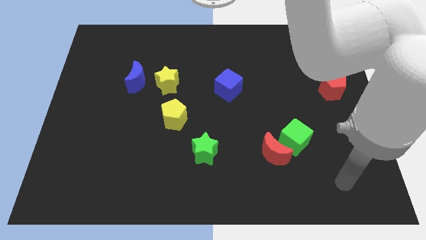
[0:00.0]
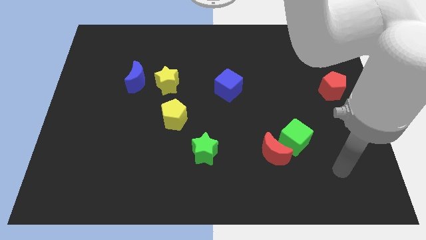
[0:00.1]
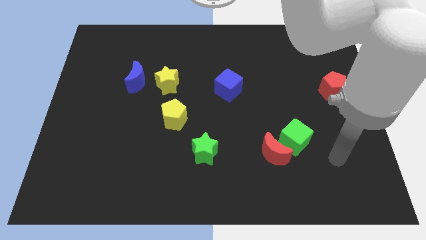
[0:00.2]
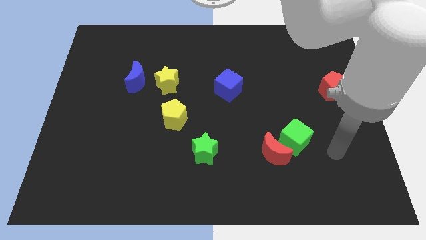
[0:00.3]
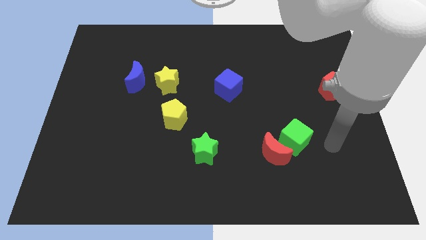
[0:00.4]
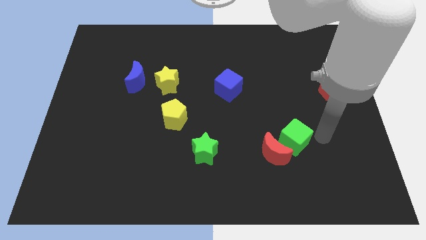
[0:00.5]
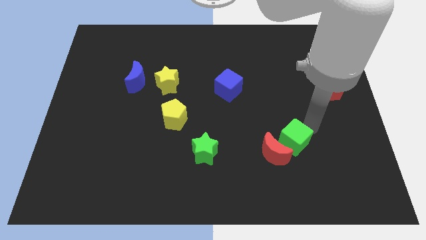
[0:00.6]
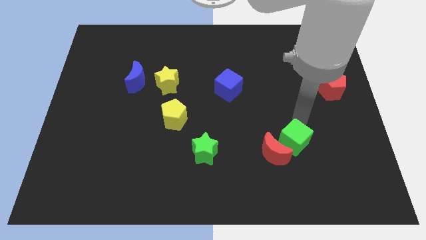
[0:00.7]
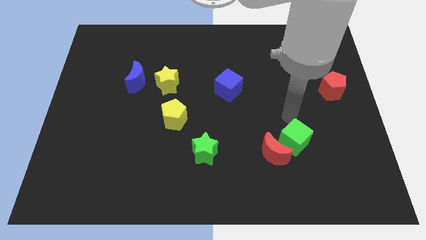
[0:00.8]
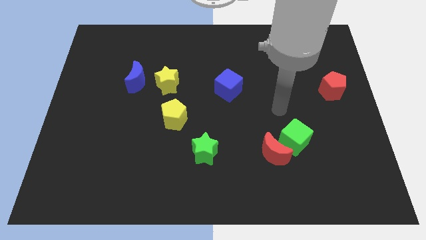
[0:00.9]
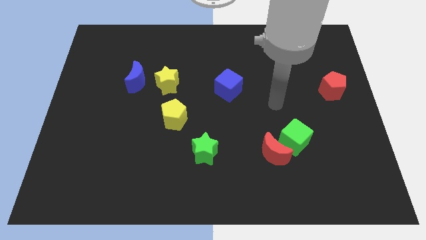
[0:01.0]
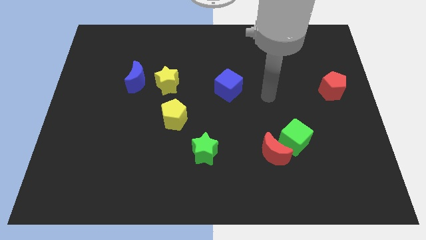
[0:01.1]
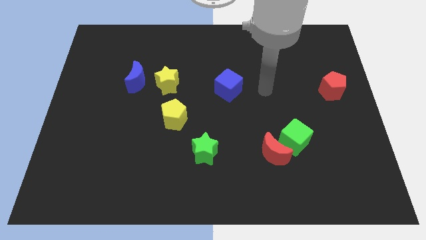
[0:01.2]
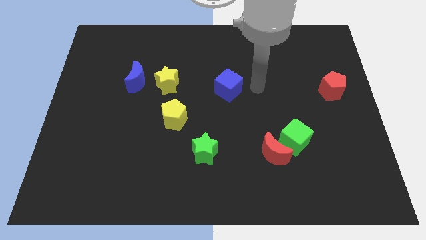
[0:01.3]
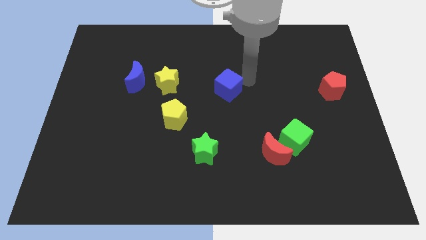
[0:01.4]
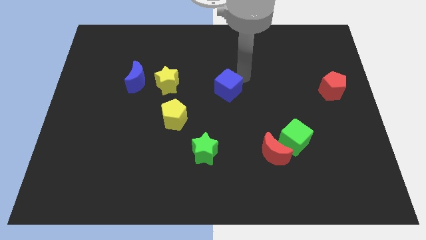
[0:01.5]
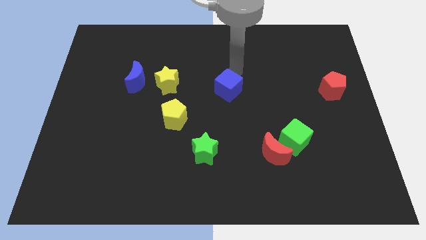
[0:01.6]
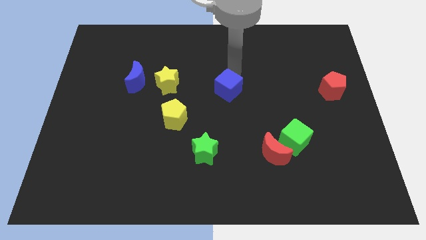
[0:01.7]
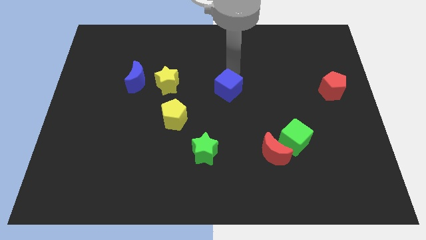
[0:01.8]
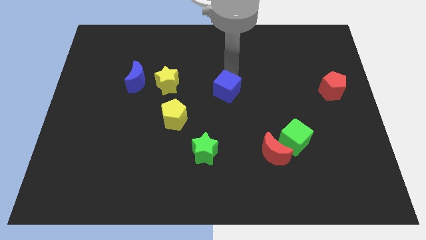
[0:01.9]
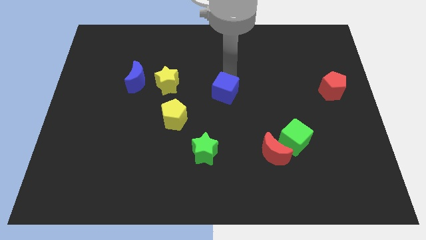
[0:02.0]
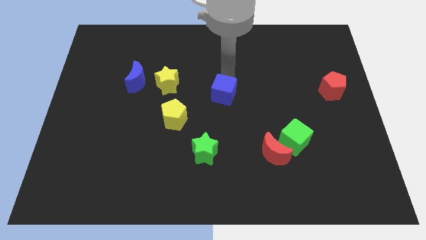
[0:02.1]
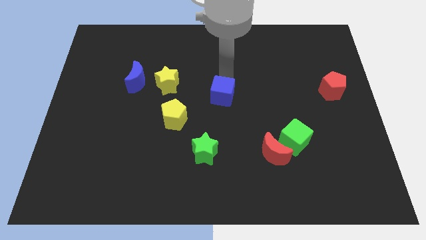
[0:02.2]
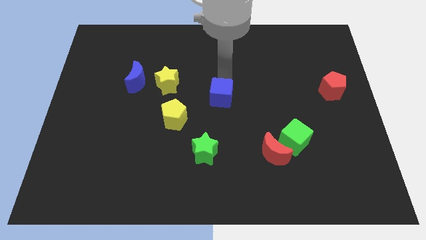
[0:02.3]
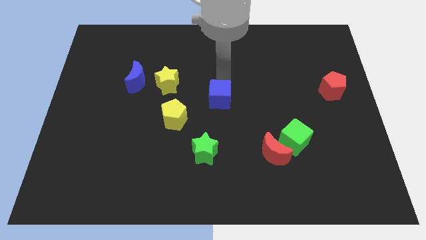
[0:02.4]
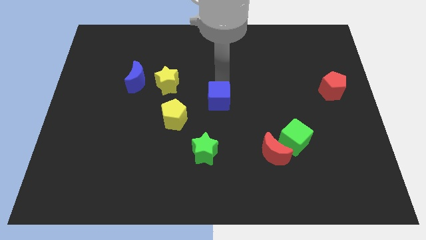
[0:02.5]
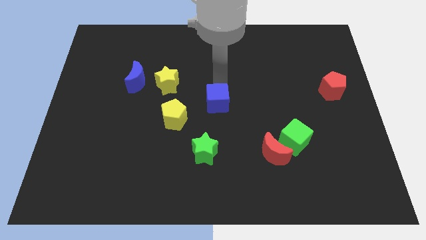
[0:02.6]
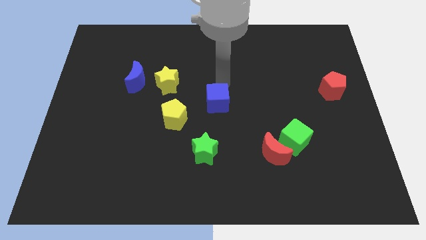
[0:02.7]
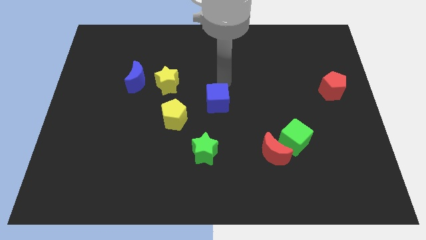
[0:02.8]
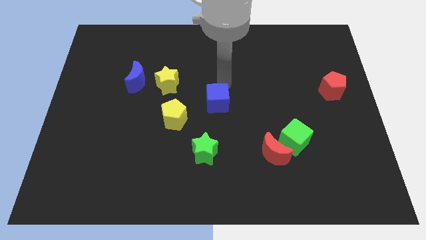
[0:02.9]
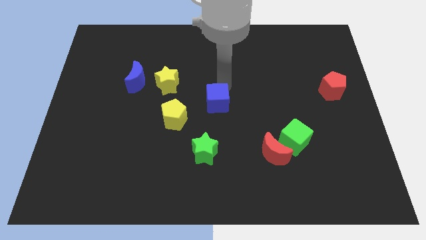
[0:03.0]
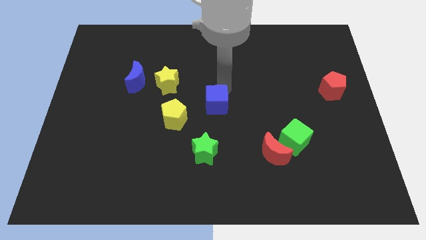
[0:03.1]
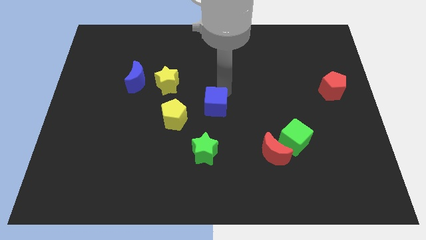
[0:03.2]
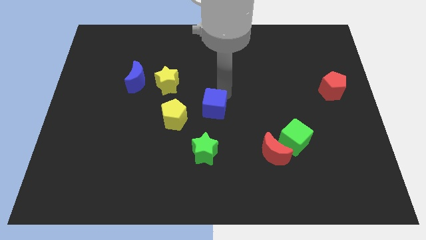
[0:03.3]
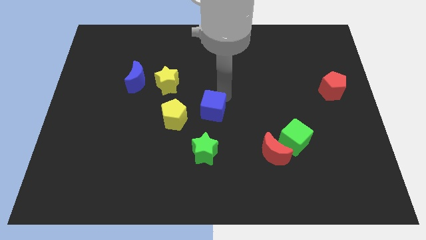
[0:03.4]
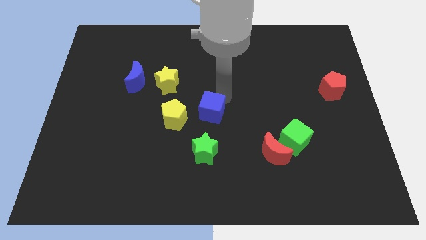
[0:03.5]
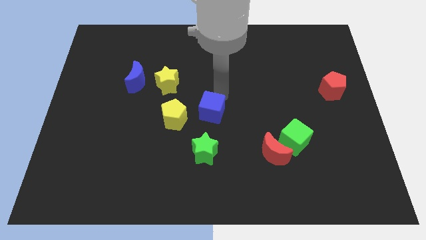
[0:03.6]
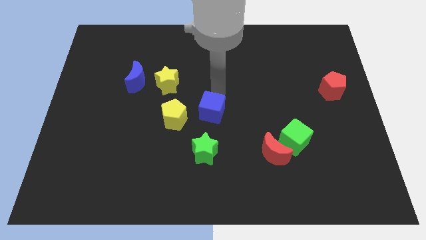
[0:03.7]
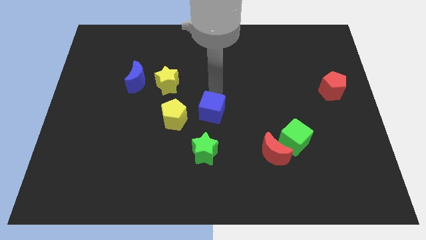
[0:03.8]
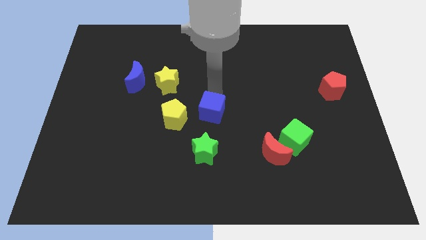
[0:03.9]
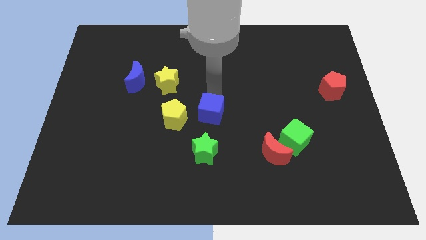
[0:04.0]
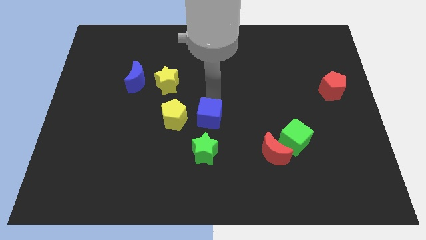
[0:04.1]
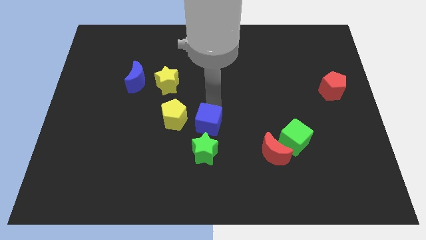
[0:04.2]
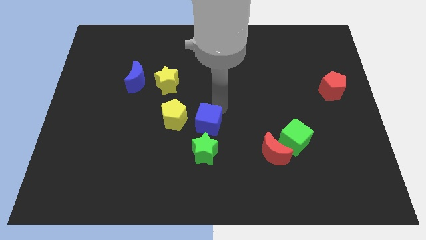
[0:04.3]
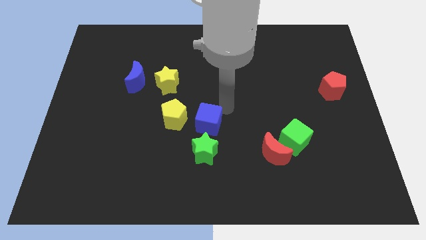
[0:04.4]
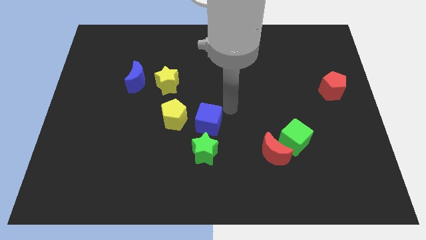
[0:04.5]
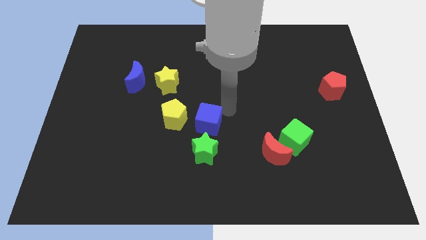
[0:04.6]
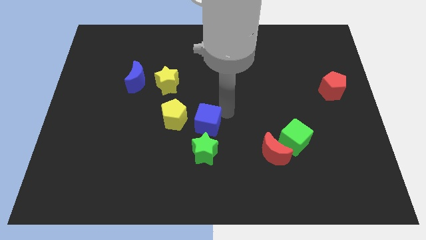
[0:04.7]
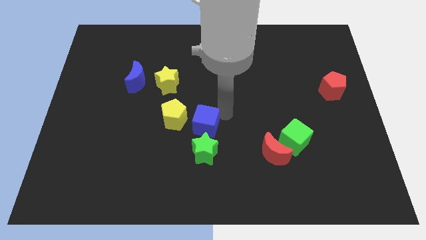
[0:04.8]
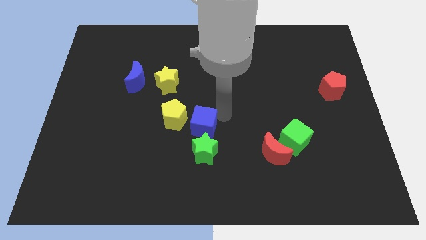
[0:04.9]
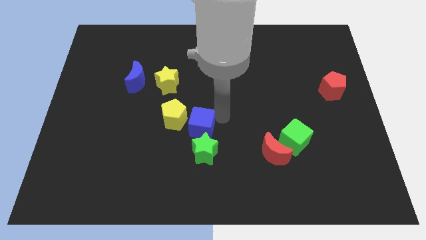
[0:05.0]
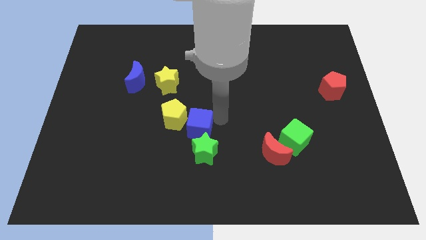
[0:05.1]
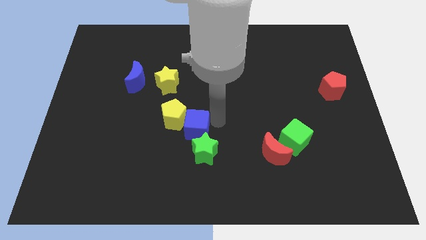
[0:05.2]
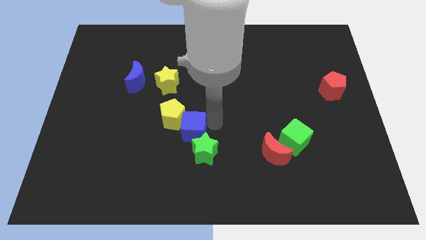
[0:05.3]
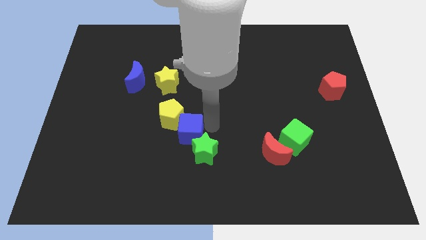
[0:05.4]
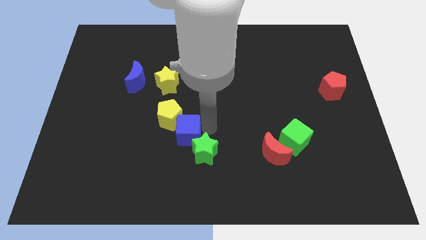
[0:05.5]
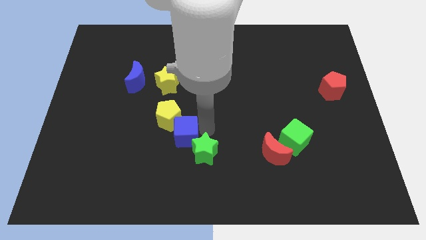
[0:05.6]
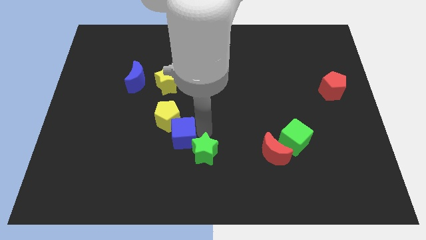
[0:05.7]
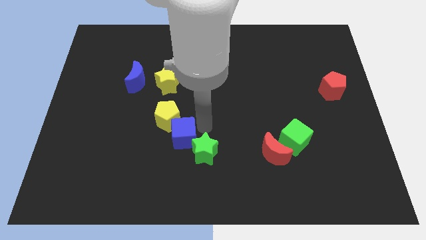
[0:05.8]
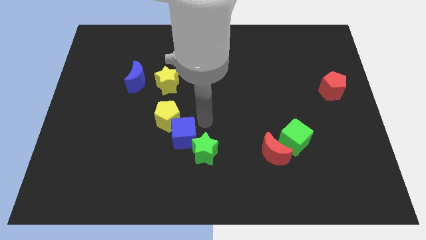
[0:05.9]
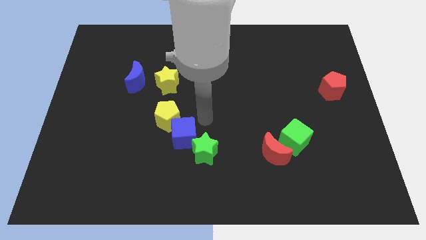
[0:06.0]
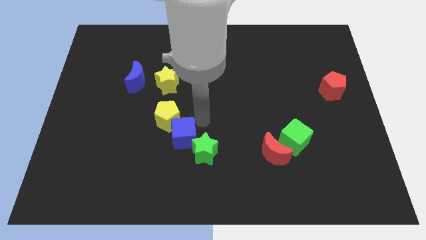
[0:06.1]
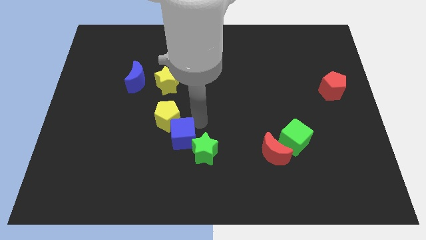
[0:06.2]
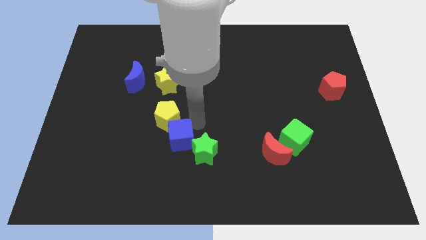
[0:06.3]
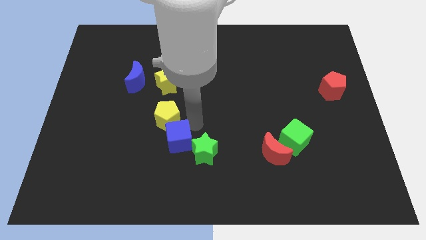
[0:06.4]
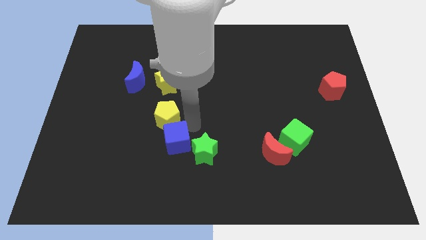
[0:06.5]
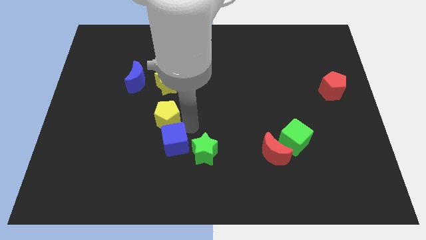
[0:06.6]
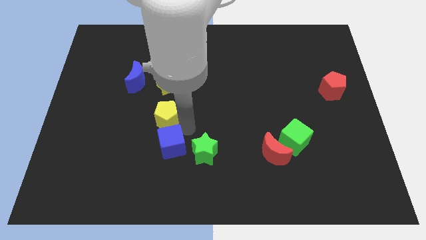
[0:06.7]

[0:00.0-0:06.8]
move the blue cube downwards and left diagonally

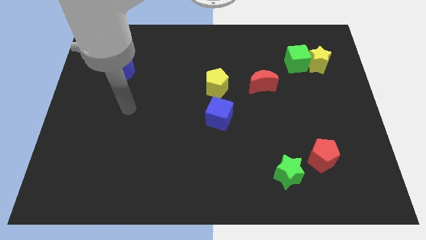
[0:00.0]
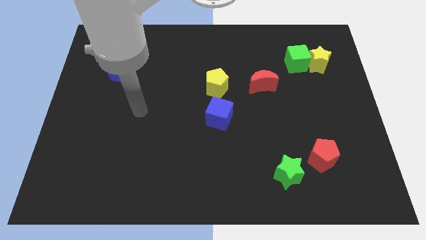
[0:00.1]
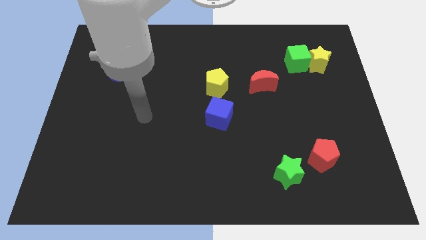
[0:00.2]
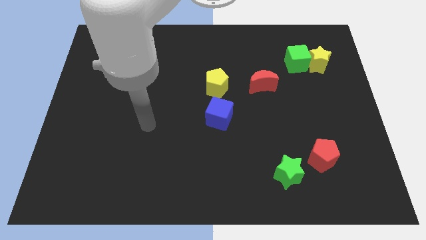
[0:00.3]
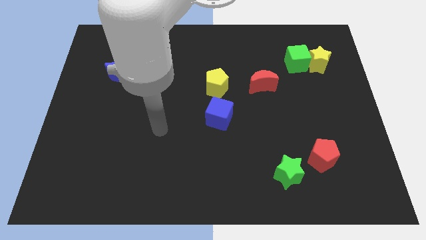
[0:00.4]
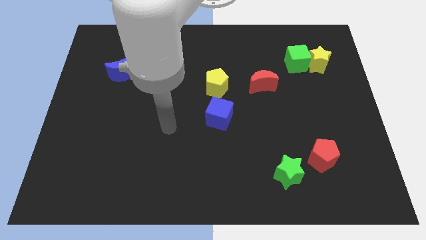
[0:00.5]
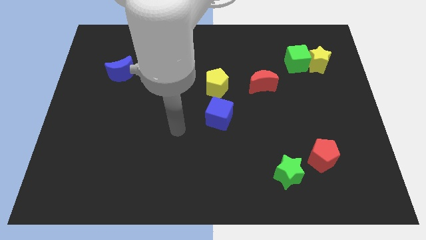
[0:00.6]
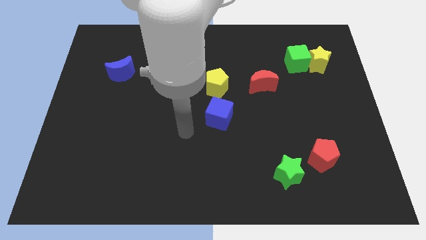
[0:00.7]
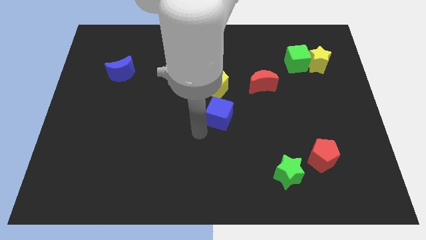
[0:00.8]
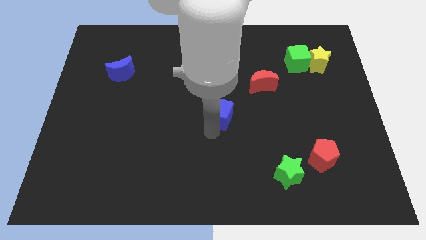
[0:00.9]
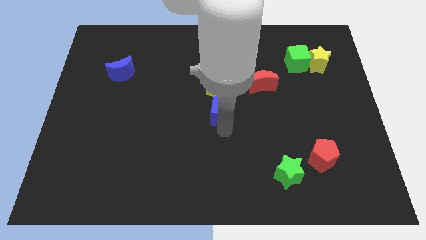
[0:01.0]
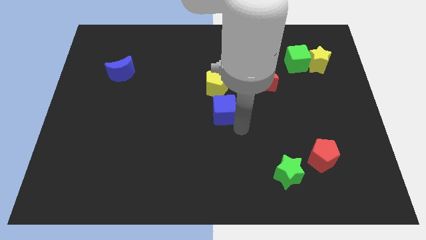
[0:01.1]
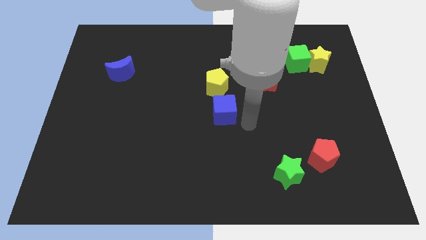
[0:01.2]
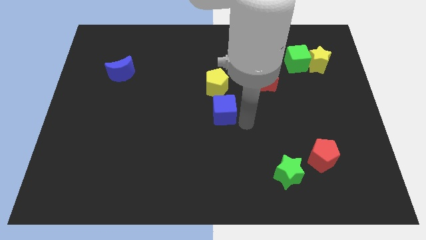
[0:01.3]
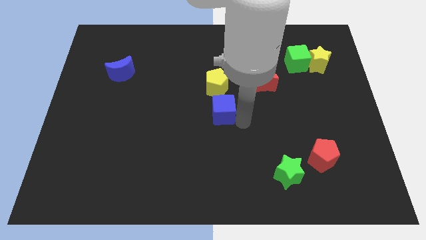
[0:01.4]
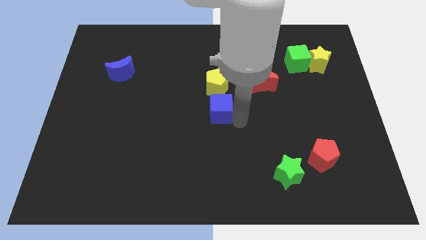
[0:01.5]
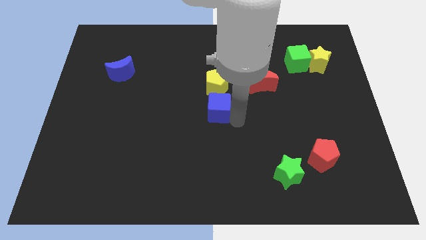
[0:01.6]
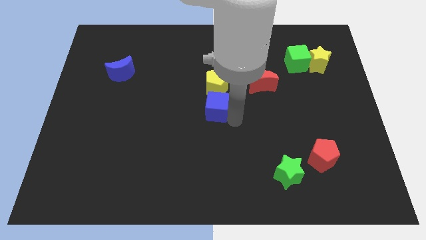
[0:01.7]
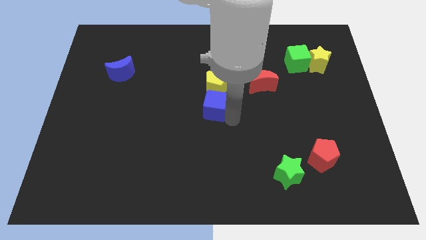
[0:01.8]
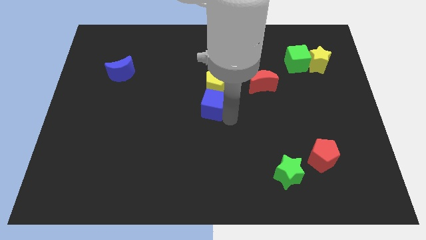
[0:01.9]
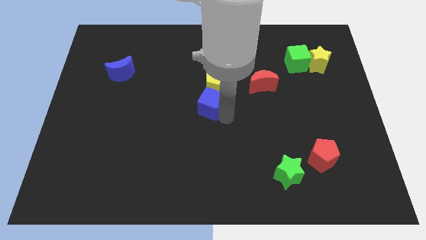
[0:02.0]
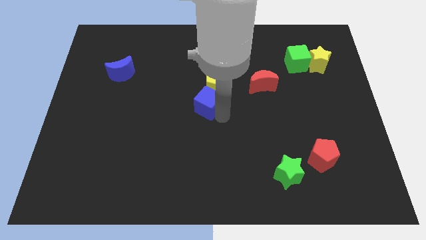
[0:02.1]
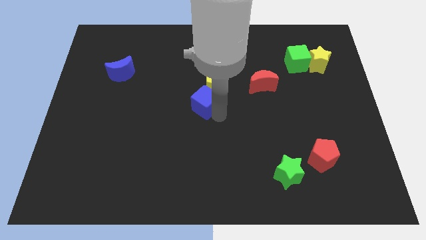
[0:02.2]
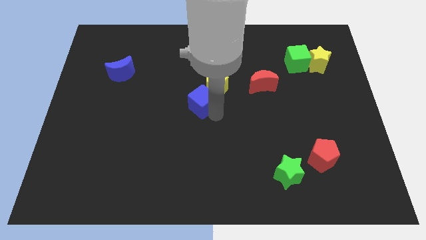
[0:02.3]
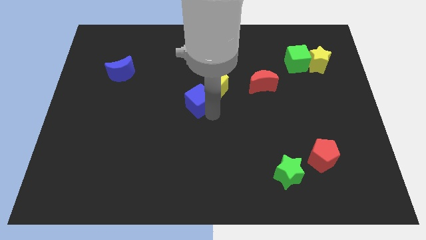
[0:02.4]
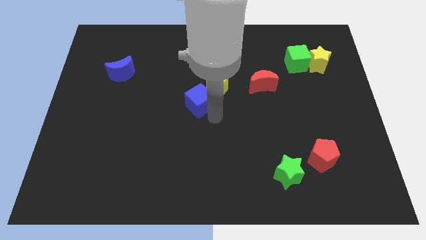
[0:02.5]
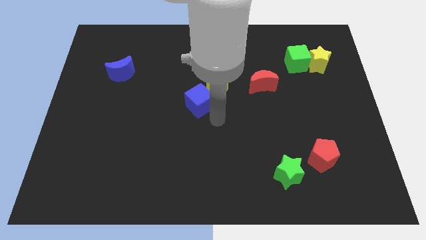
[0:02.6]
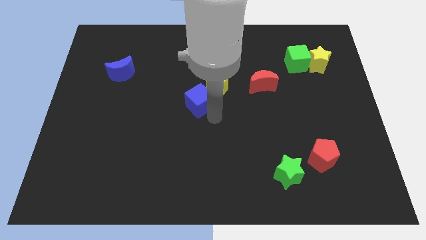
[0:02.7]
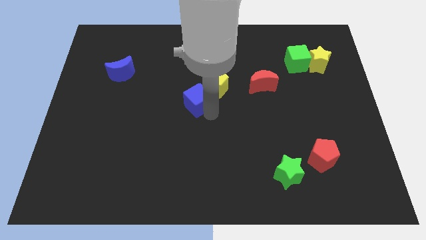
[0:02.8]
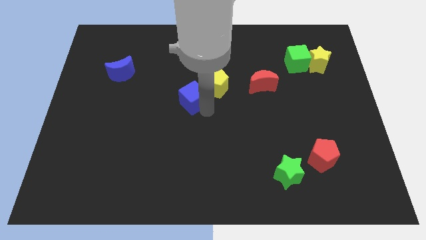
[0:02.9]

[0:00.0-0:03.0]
move the blue cube a bit upwards and left diagonally
